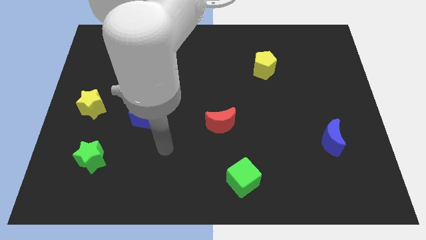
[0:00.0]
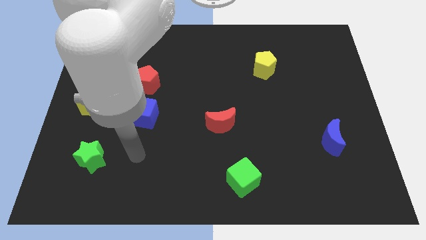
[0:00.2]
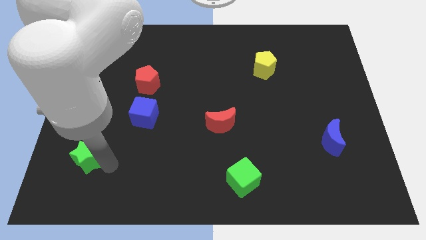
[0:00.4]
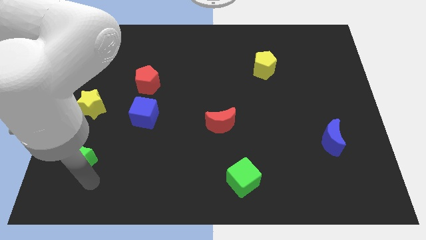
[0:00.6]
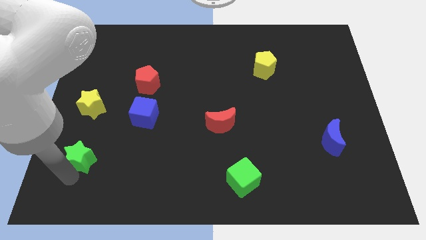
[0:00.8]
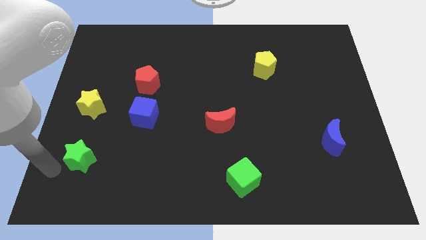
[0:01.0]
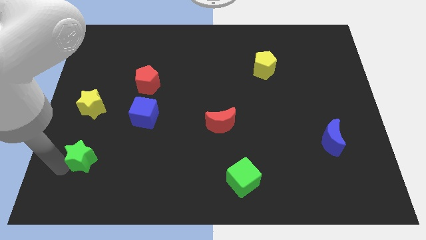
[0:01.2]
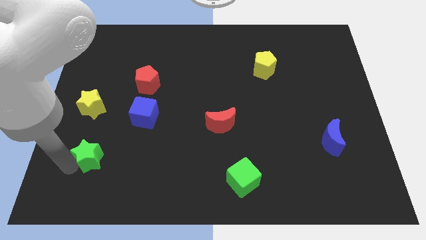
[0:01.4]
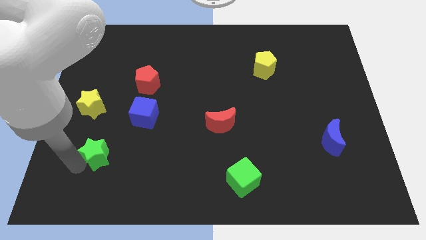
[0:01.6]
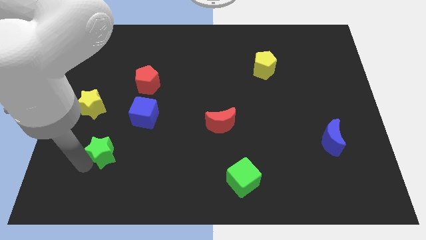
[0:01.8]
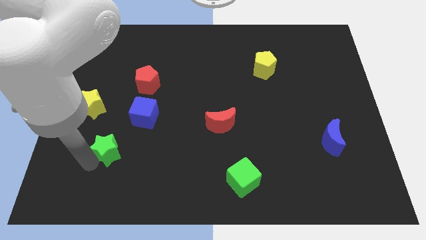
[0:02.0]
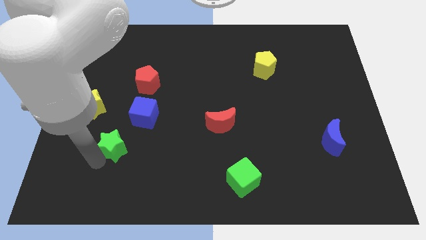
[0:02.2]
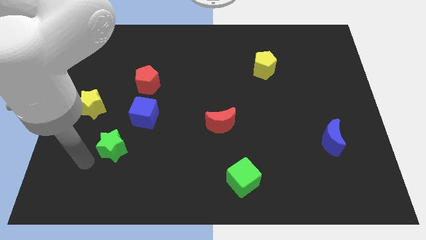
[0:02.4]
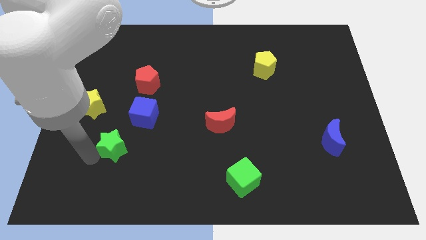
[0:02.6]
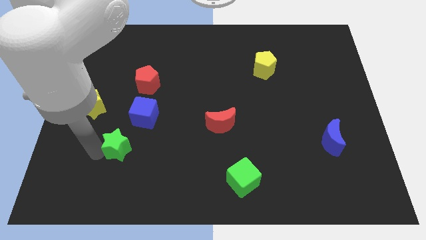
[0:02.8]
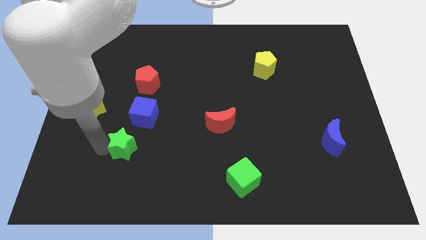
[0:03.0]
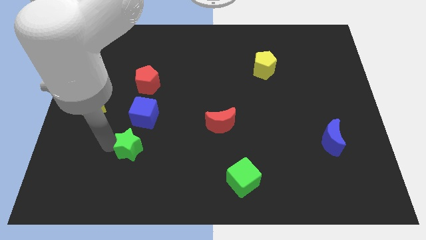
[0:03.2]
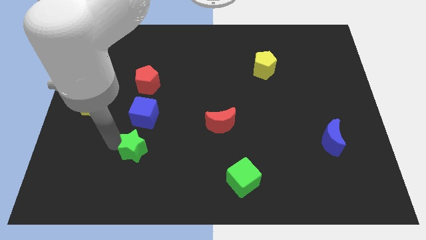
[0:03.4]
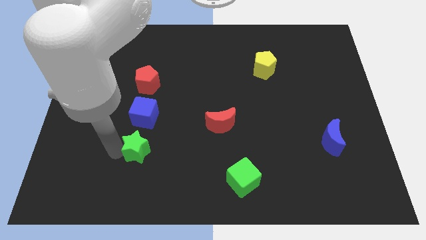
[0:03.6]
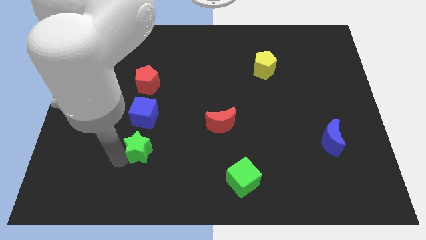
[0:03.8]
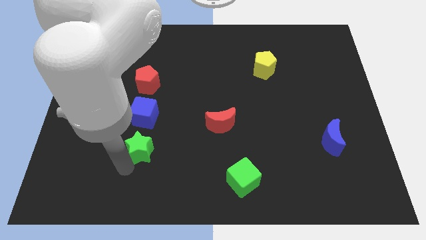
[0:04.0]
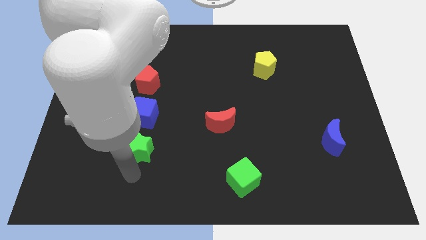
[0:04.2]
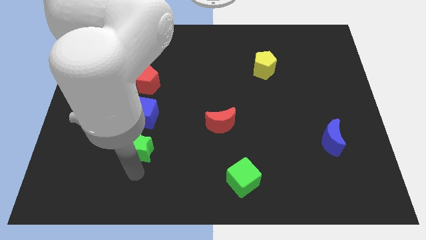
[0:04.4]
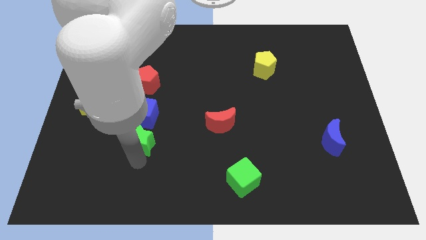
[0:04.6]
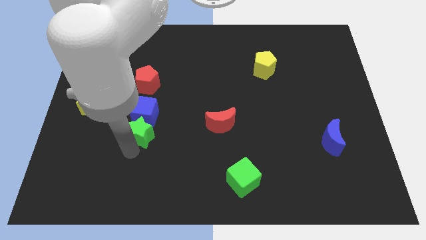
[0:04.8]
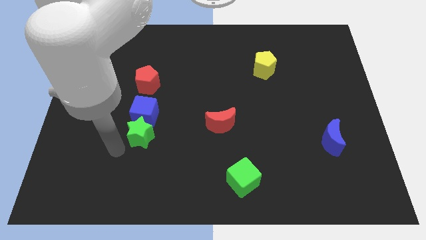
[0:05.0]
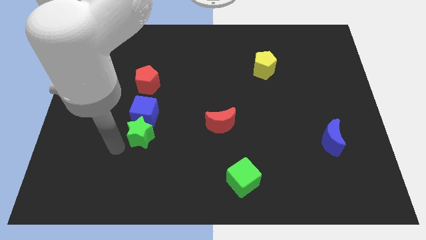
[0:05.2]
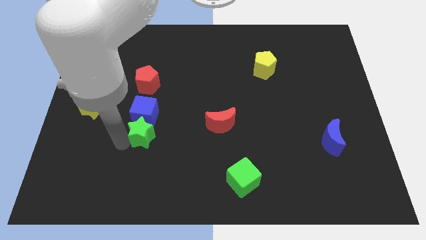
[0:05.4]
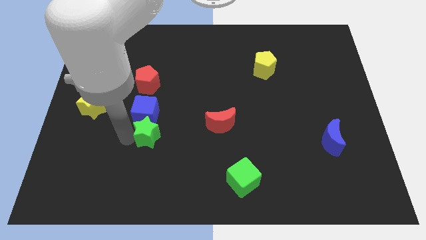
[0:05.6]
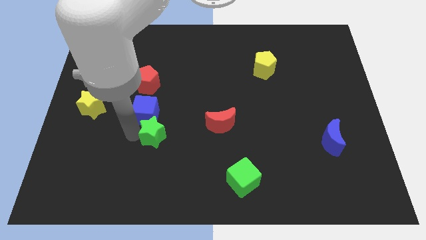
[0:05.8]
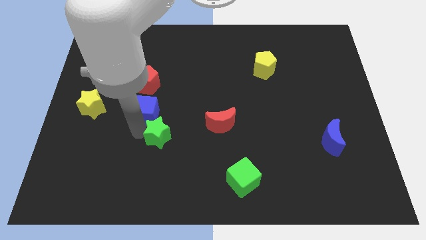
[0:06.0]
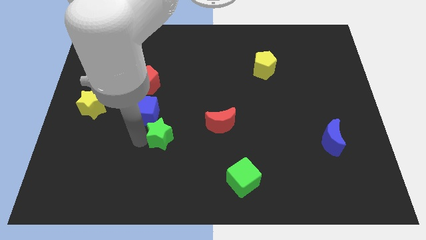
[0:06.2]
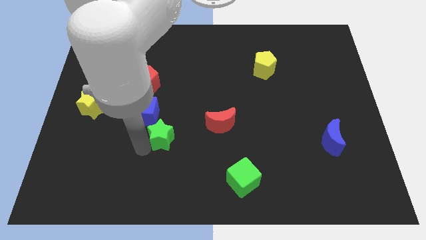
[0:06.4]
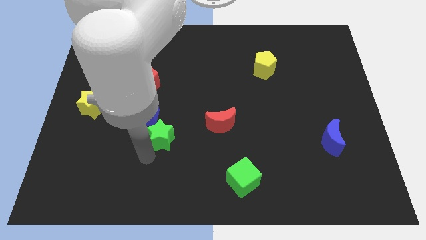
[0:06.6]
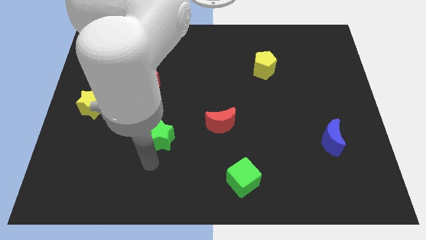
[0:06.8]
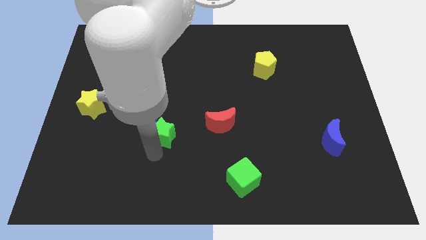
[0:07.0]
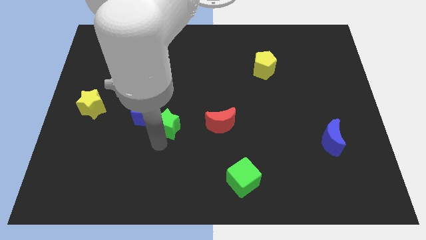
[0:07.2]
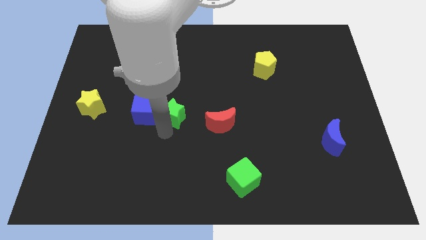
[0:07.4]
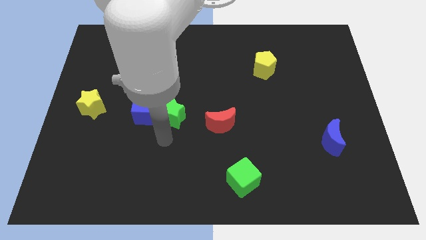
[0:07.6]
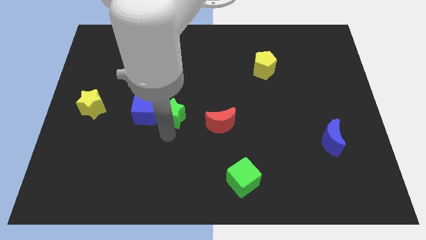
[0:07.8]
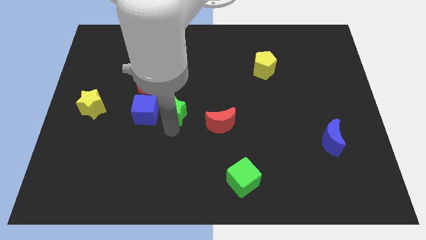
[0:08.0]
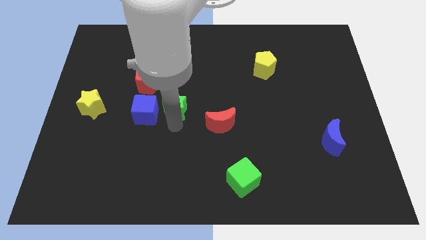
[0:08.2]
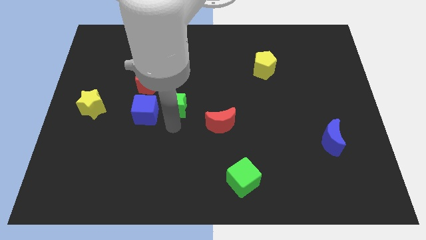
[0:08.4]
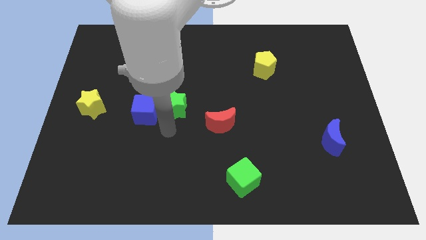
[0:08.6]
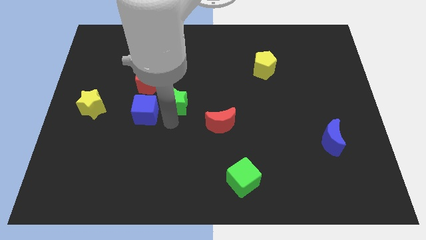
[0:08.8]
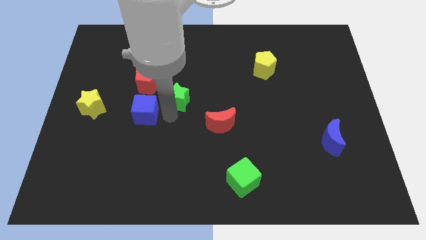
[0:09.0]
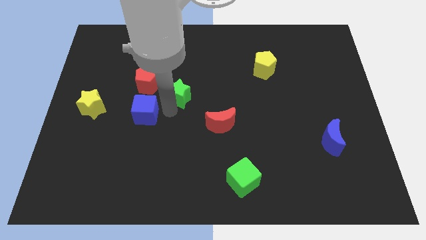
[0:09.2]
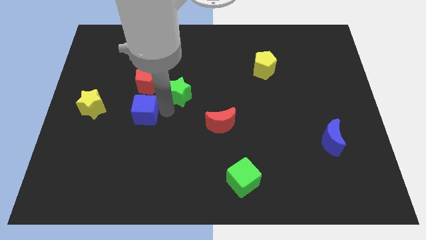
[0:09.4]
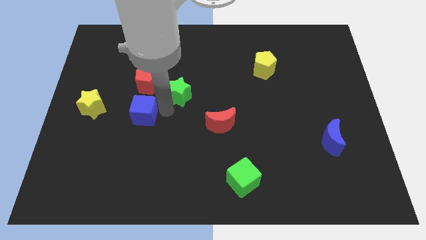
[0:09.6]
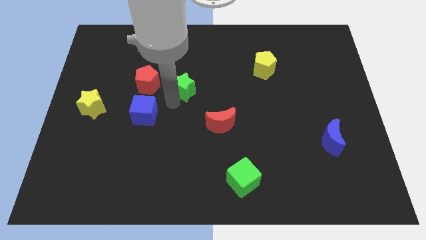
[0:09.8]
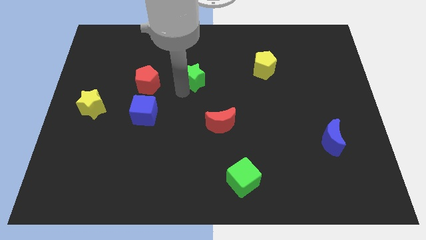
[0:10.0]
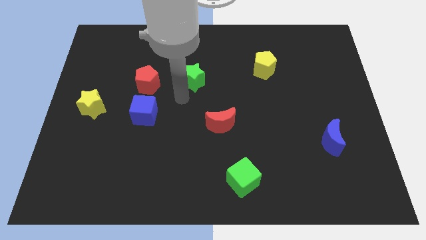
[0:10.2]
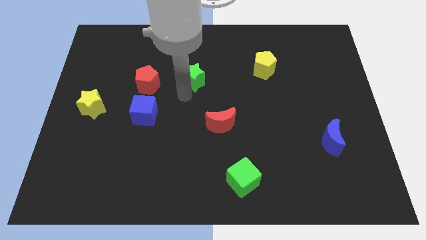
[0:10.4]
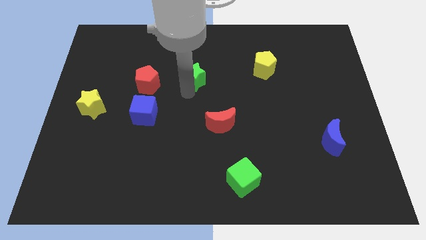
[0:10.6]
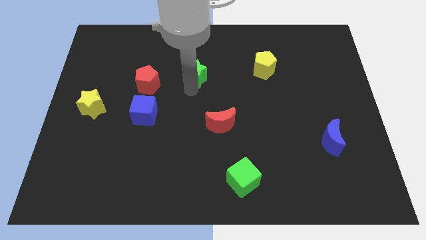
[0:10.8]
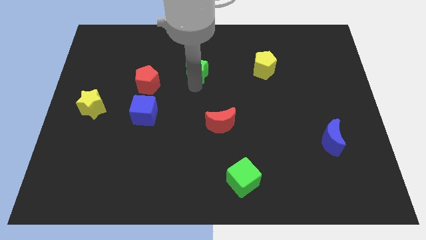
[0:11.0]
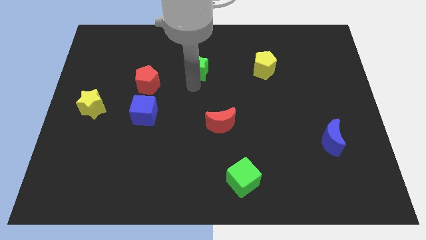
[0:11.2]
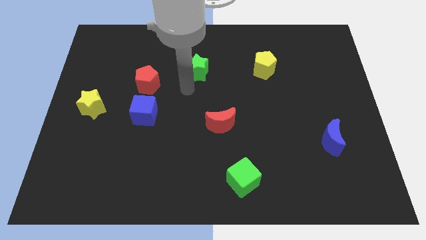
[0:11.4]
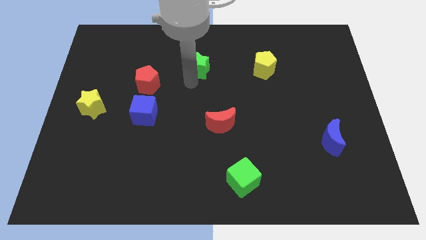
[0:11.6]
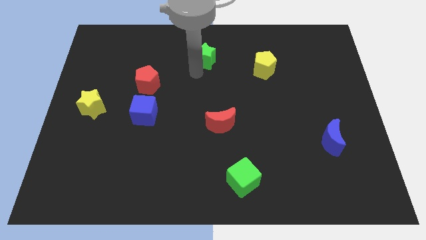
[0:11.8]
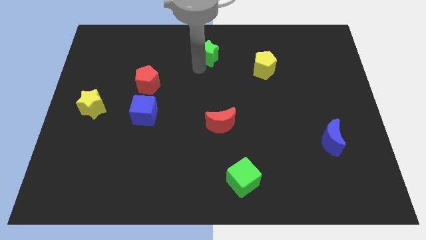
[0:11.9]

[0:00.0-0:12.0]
slide the green star to the top
